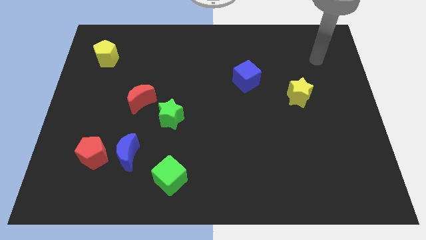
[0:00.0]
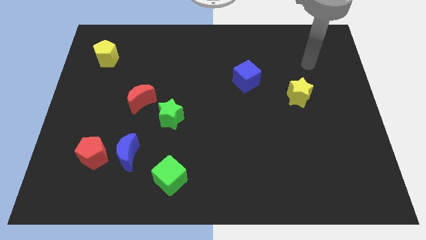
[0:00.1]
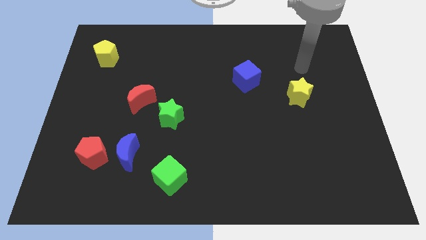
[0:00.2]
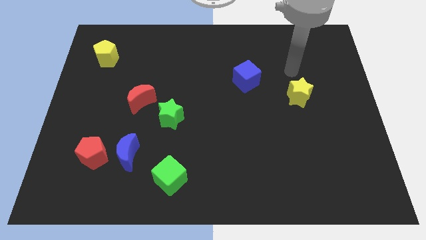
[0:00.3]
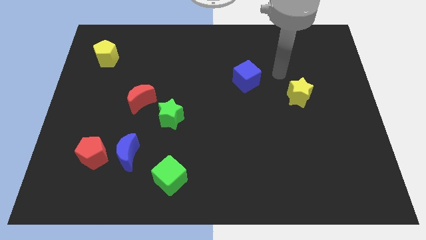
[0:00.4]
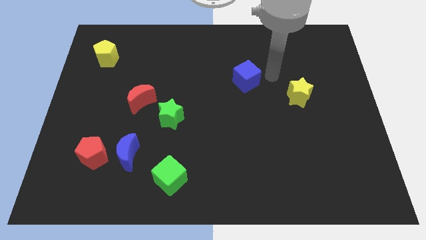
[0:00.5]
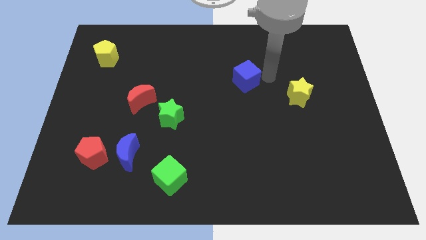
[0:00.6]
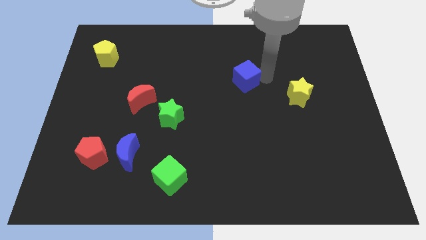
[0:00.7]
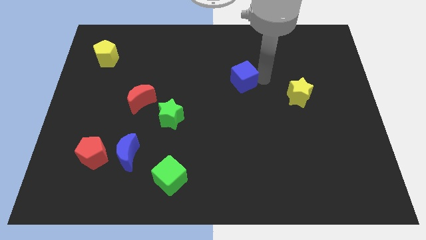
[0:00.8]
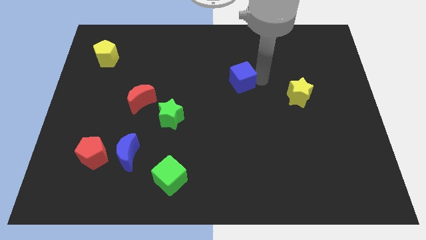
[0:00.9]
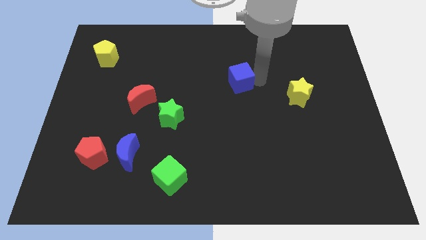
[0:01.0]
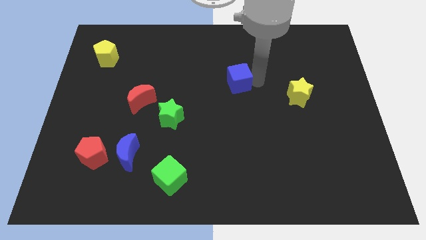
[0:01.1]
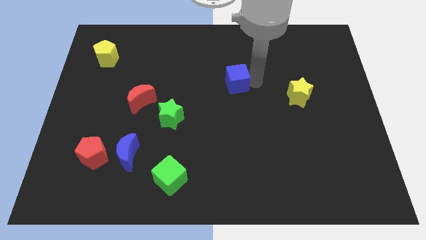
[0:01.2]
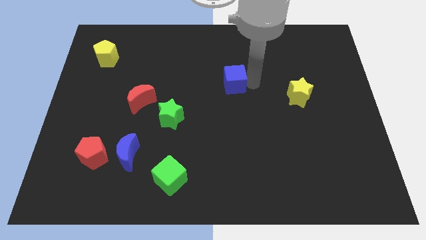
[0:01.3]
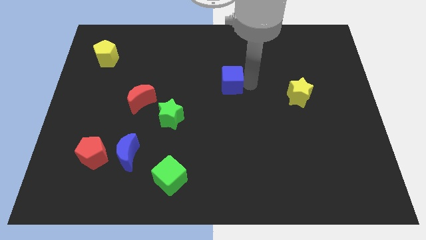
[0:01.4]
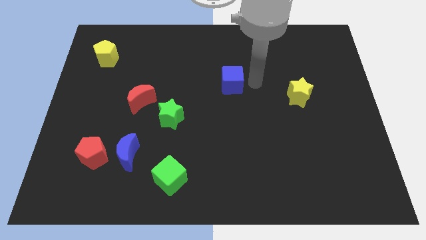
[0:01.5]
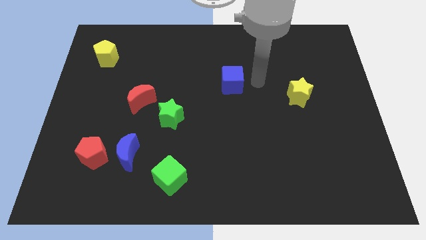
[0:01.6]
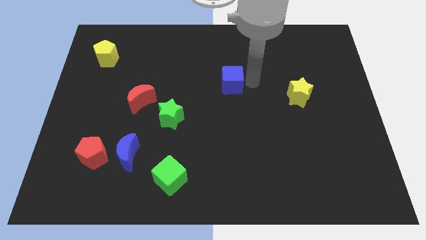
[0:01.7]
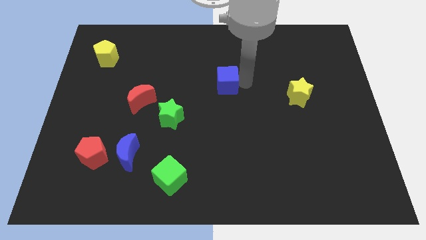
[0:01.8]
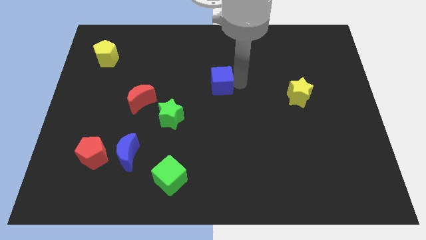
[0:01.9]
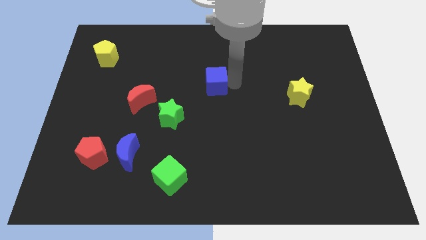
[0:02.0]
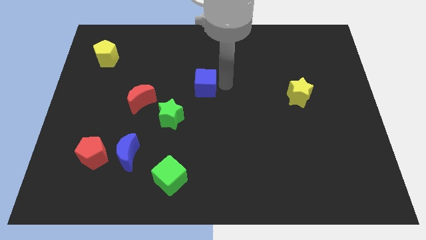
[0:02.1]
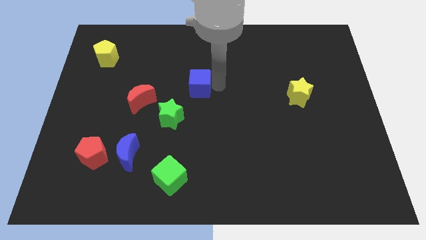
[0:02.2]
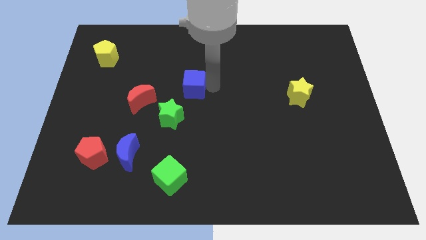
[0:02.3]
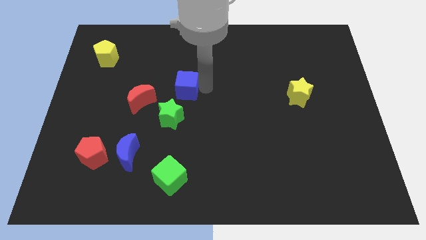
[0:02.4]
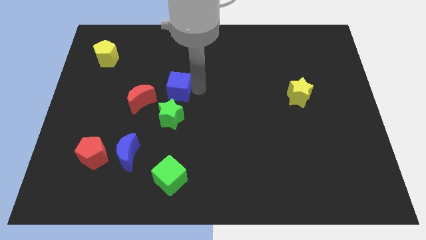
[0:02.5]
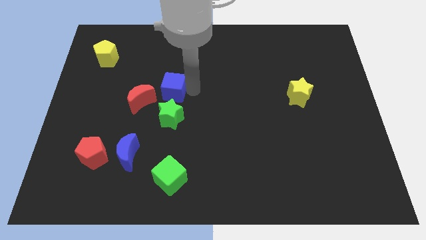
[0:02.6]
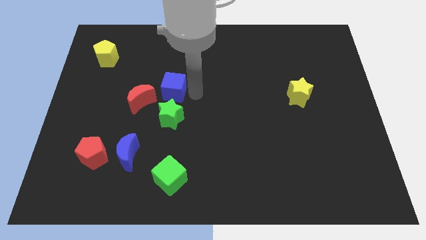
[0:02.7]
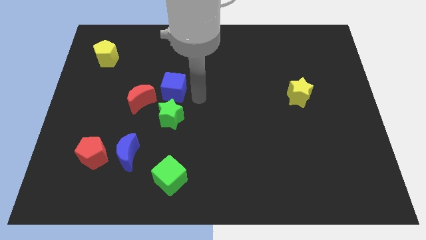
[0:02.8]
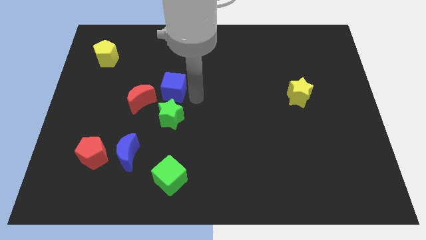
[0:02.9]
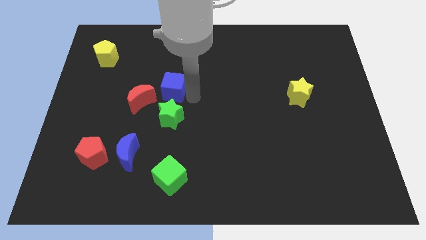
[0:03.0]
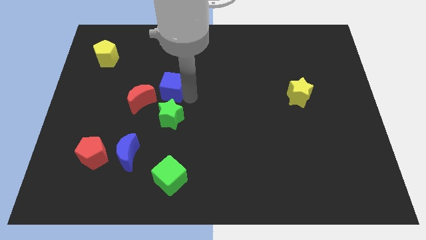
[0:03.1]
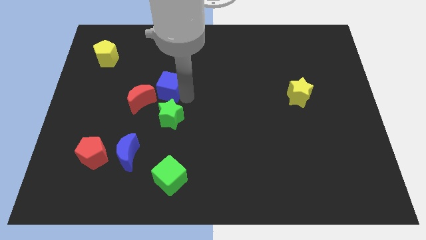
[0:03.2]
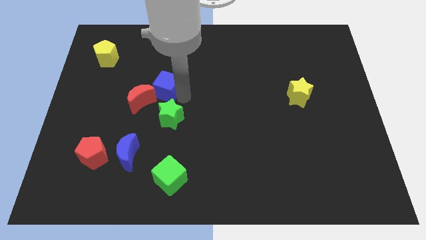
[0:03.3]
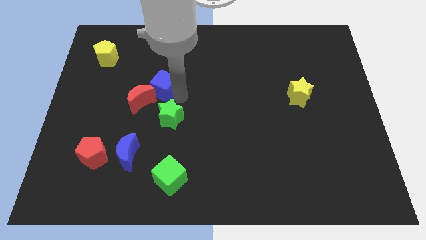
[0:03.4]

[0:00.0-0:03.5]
push the blue cube left

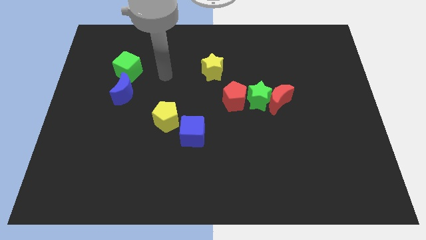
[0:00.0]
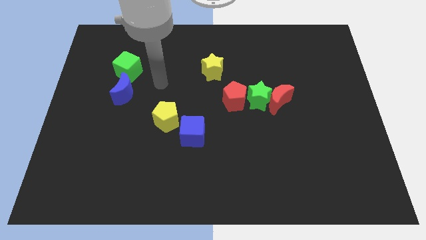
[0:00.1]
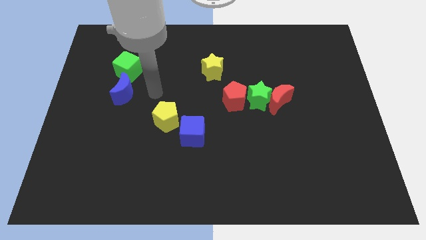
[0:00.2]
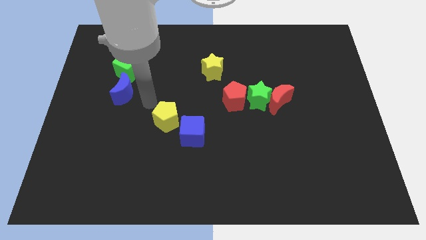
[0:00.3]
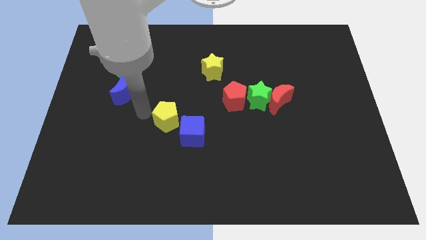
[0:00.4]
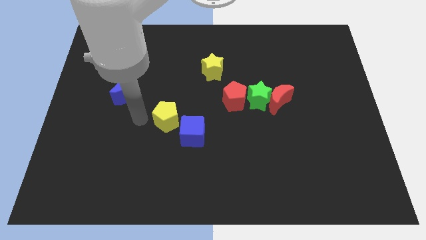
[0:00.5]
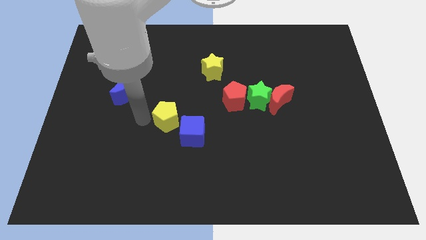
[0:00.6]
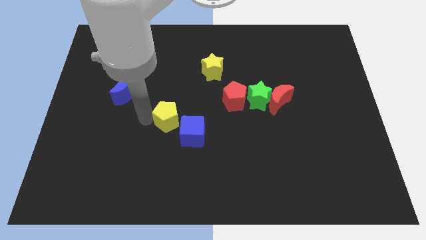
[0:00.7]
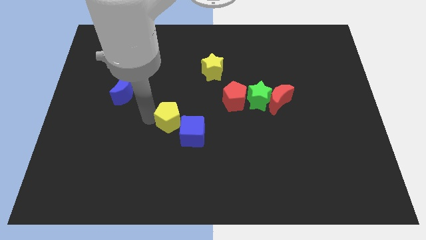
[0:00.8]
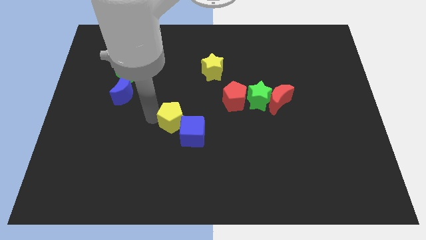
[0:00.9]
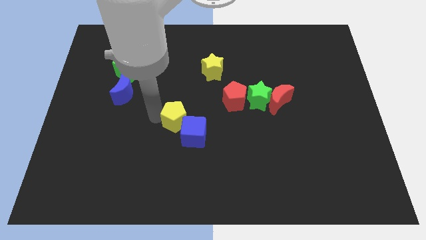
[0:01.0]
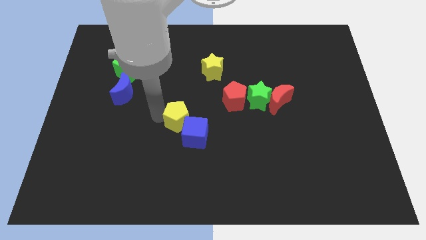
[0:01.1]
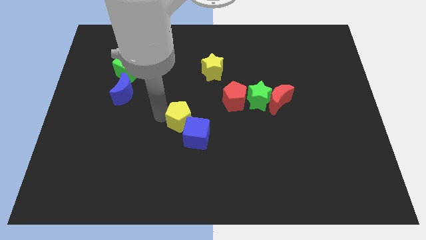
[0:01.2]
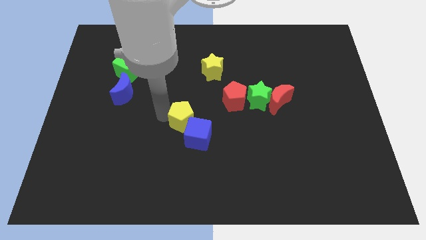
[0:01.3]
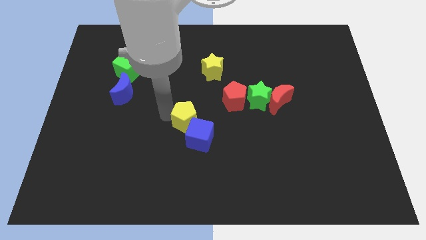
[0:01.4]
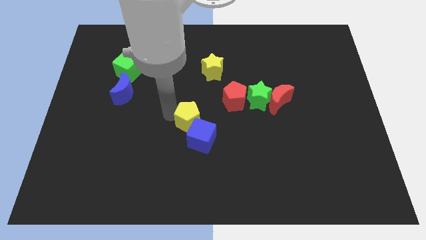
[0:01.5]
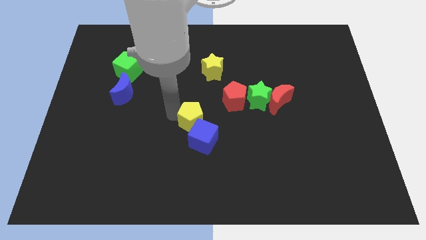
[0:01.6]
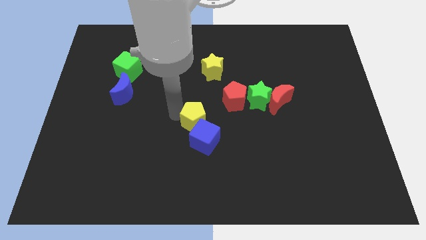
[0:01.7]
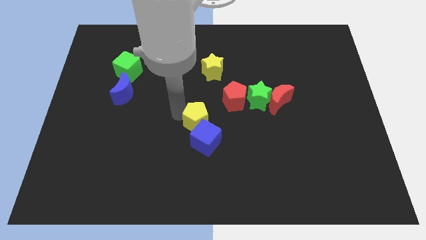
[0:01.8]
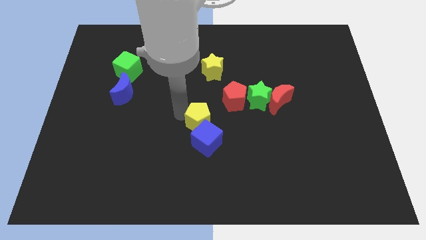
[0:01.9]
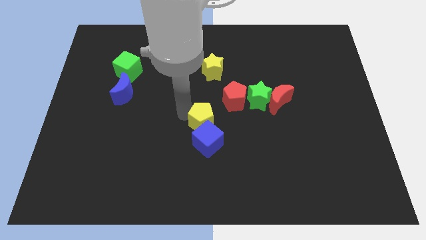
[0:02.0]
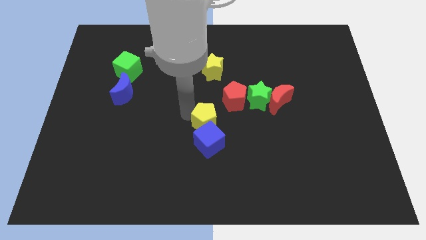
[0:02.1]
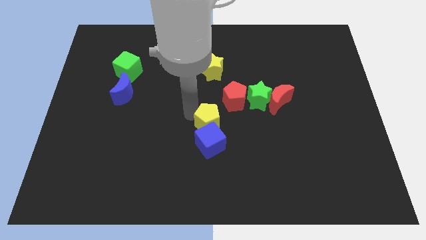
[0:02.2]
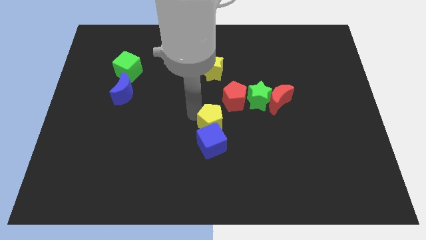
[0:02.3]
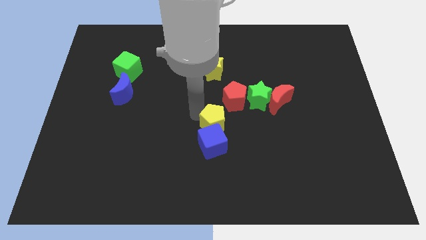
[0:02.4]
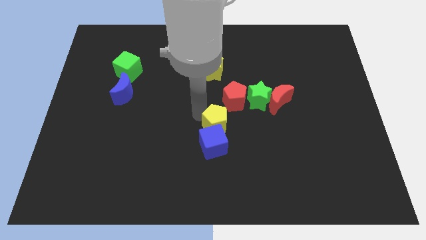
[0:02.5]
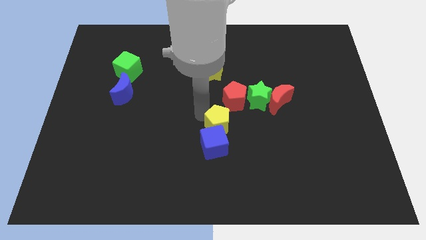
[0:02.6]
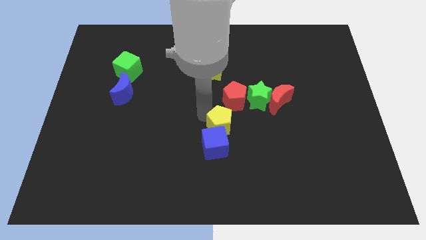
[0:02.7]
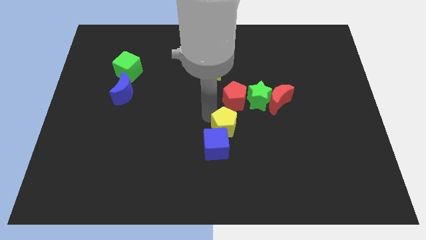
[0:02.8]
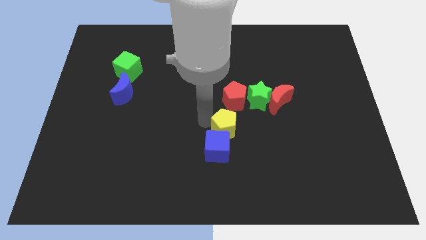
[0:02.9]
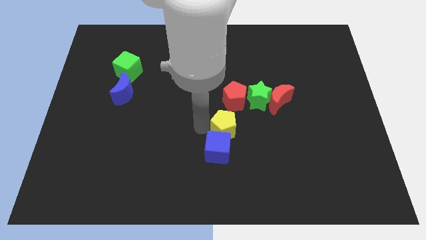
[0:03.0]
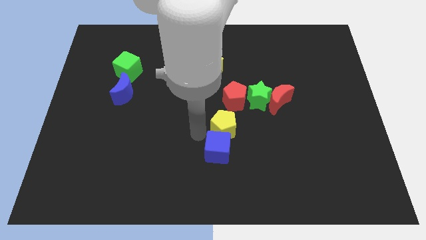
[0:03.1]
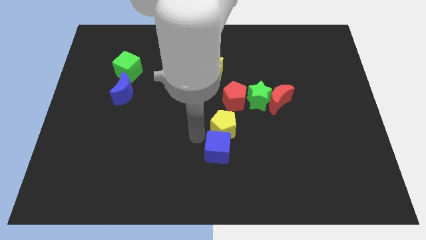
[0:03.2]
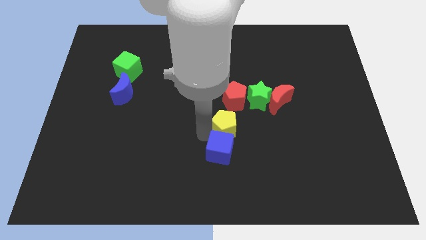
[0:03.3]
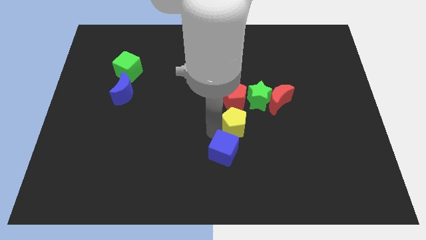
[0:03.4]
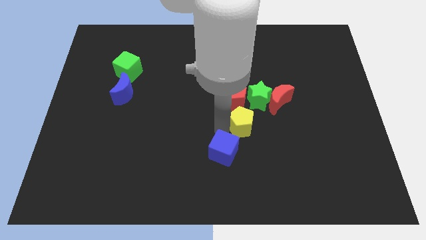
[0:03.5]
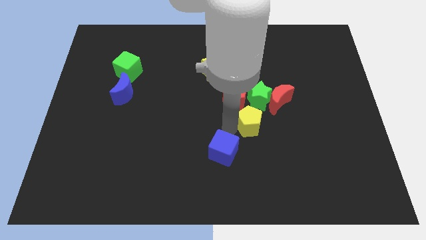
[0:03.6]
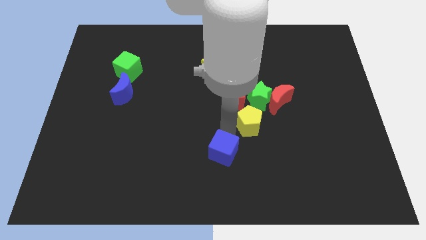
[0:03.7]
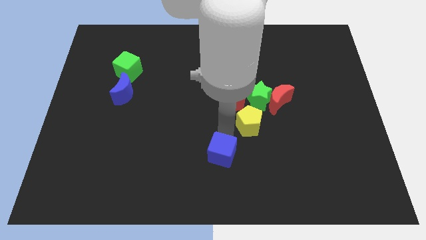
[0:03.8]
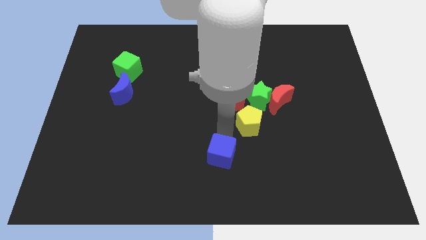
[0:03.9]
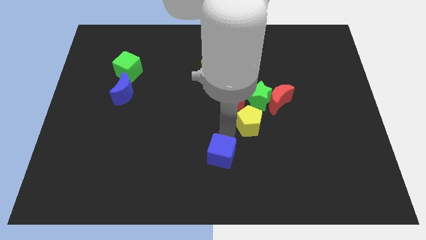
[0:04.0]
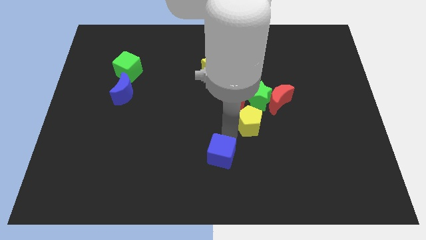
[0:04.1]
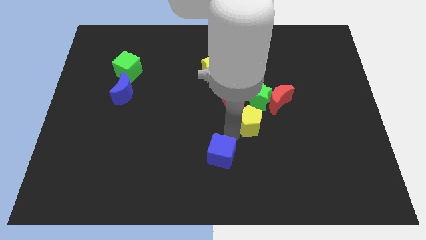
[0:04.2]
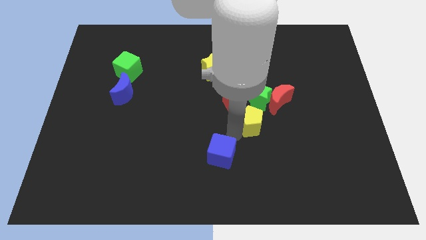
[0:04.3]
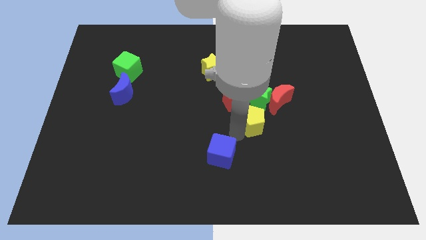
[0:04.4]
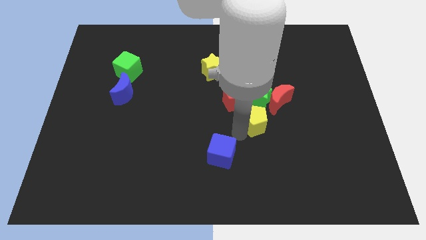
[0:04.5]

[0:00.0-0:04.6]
slide the yellow pentagon right
